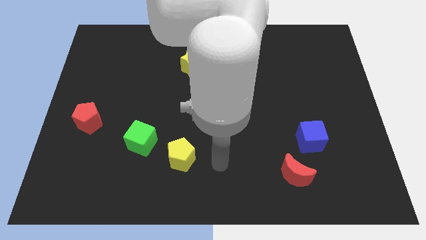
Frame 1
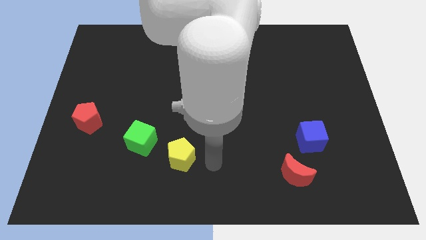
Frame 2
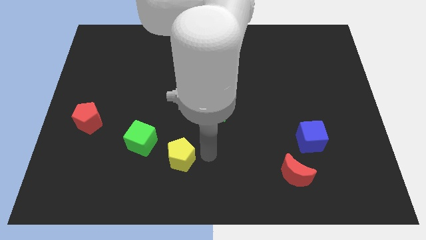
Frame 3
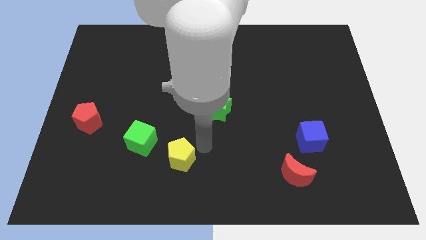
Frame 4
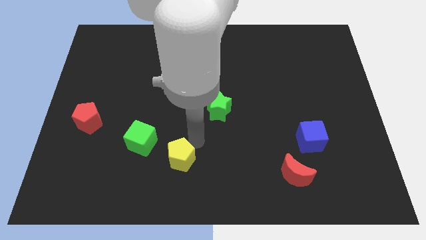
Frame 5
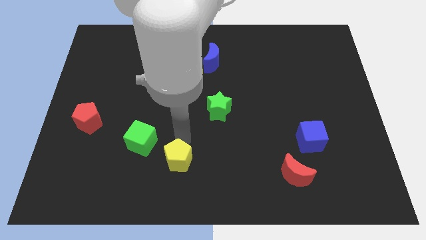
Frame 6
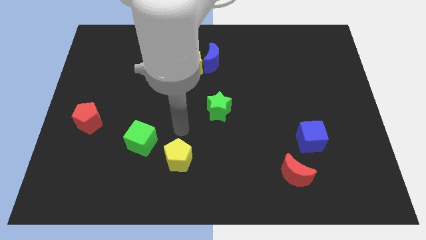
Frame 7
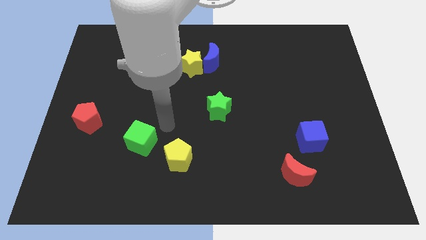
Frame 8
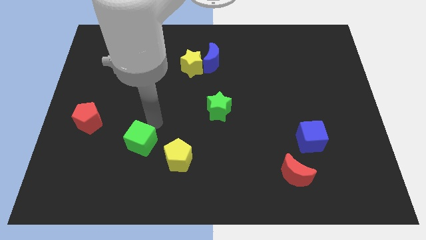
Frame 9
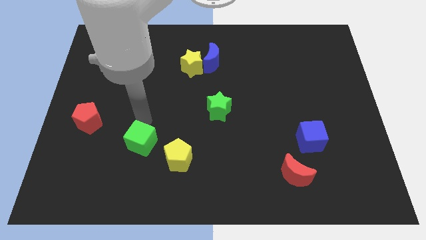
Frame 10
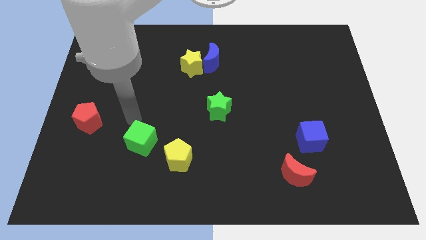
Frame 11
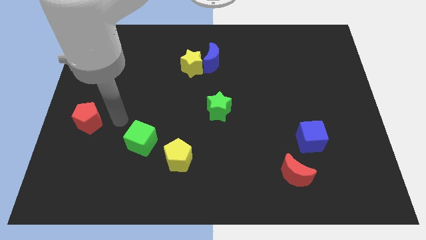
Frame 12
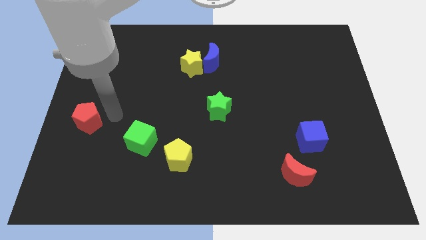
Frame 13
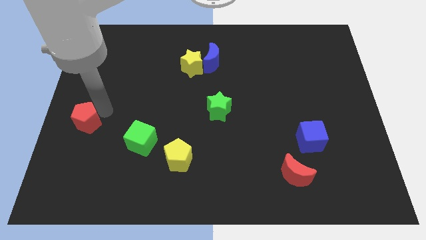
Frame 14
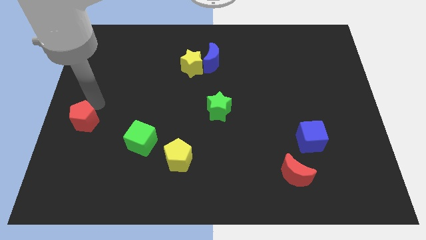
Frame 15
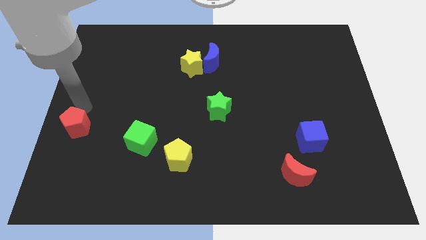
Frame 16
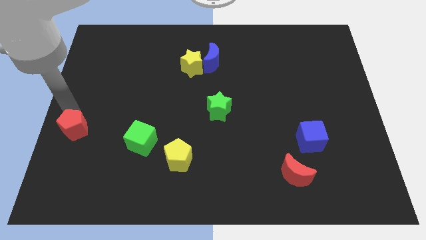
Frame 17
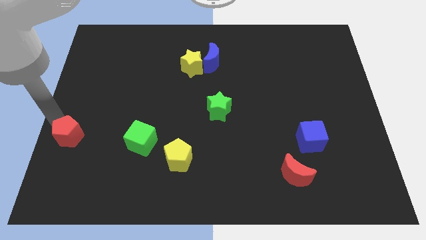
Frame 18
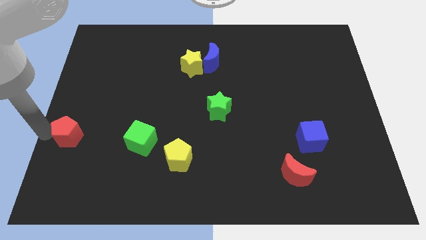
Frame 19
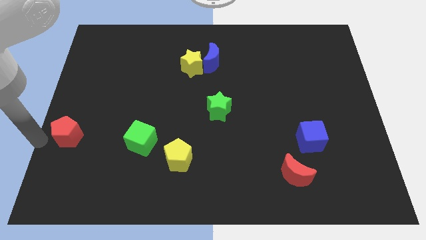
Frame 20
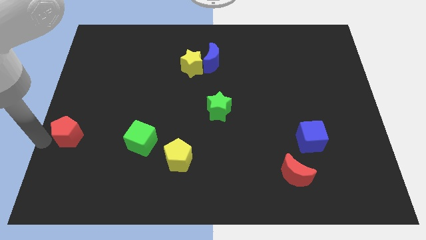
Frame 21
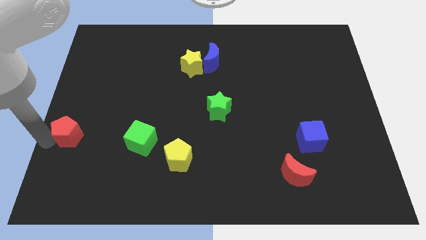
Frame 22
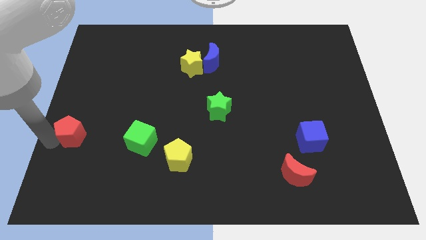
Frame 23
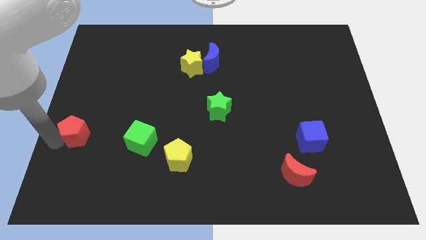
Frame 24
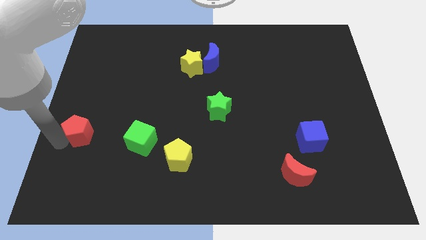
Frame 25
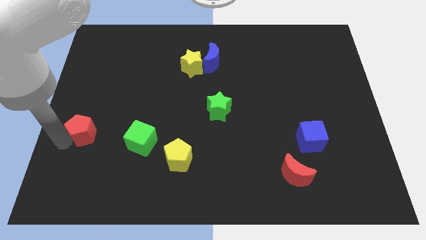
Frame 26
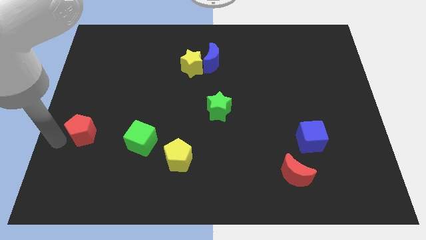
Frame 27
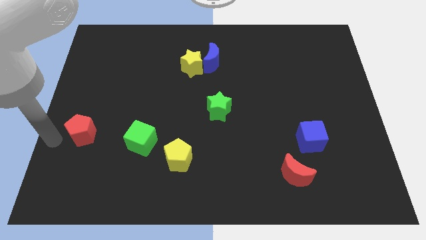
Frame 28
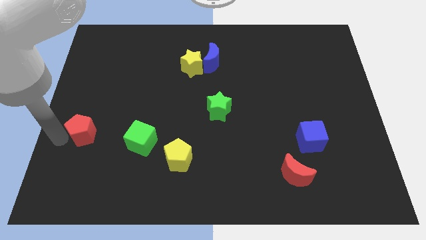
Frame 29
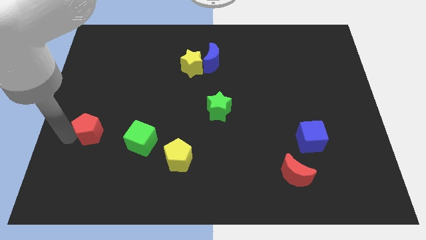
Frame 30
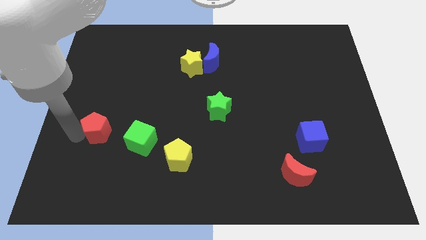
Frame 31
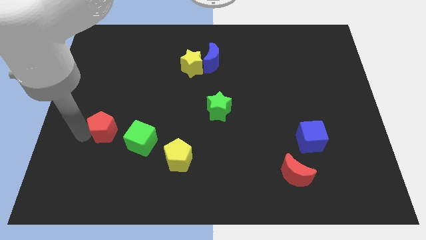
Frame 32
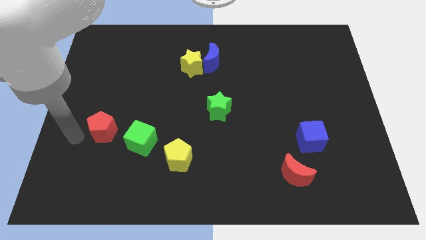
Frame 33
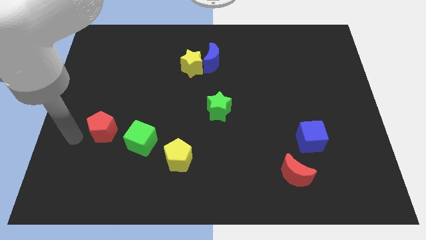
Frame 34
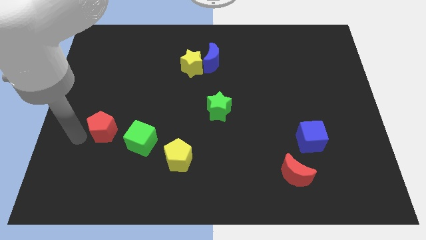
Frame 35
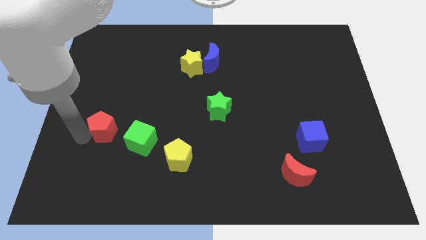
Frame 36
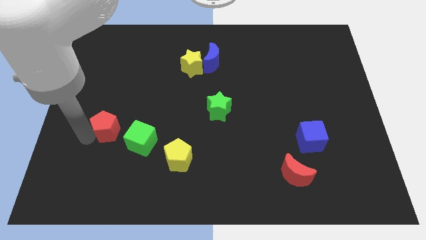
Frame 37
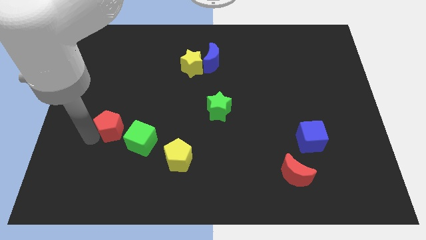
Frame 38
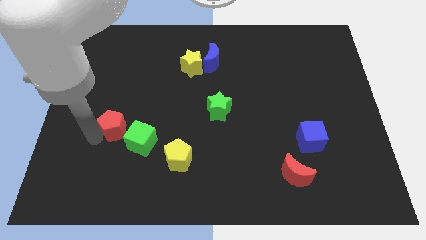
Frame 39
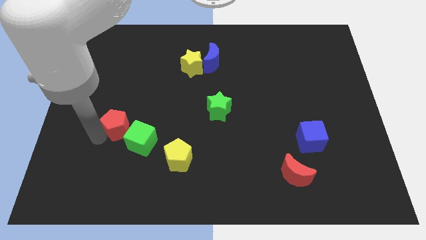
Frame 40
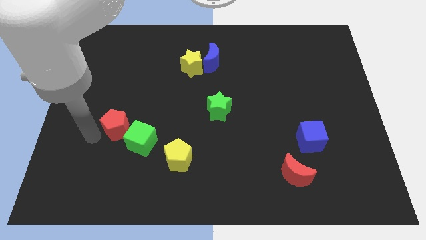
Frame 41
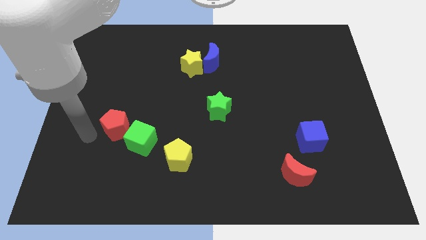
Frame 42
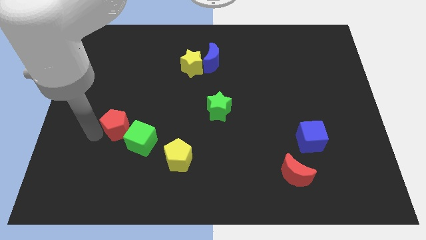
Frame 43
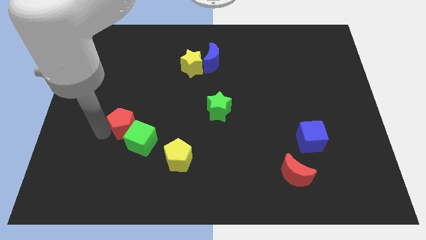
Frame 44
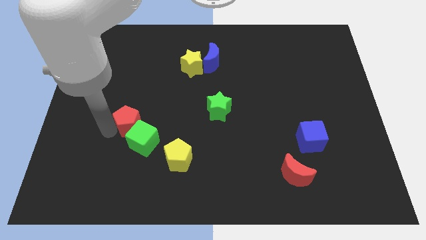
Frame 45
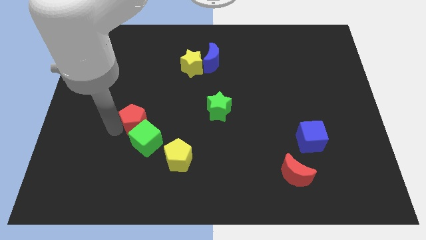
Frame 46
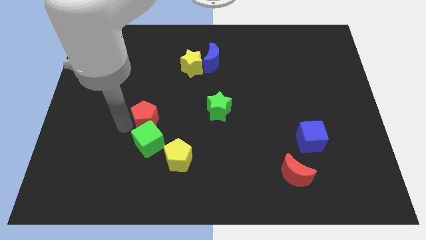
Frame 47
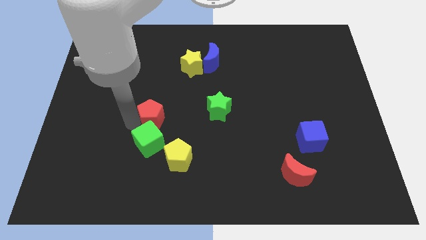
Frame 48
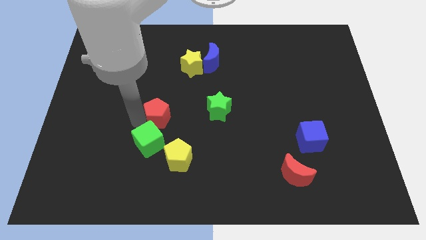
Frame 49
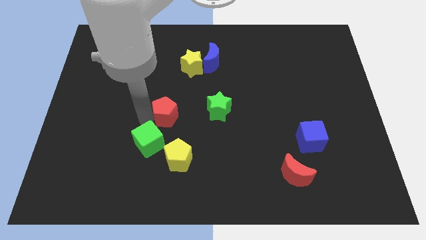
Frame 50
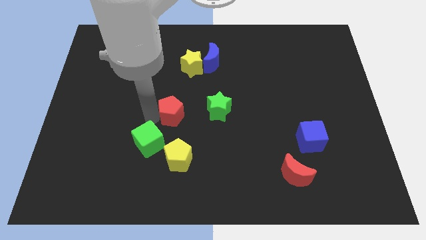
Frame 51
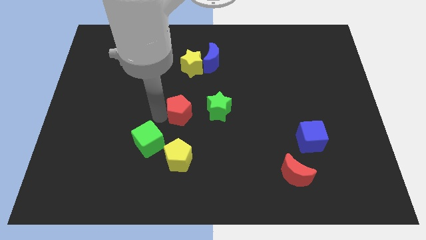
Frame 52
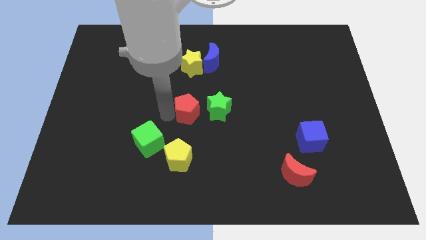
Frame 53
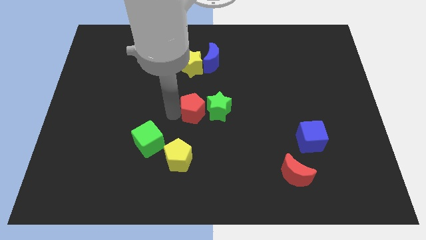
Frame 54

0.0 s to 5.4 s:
slide the red pentagon close to the green star

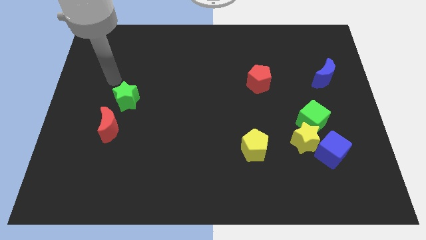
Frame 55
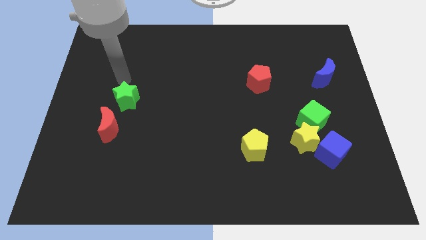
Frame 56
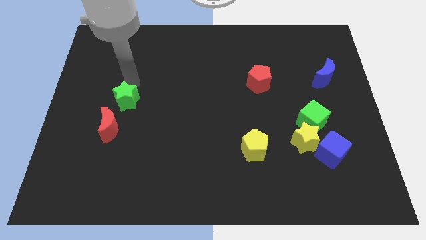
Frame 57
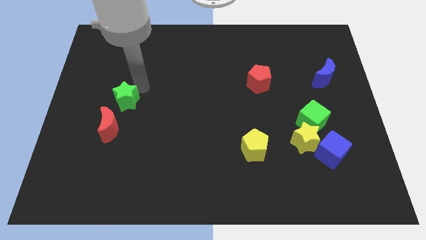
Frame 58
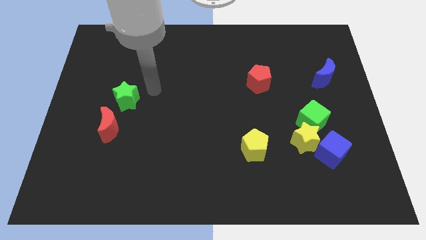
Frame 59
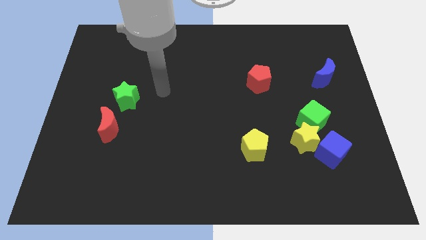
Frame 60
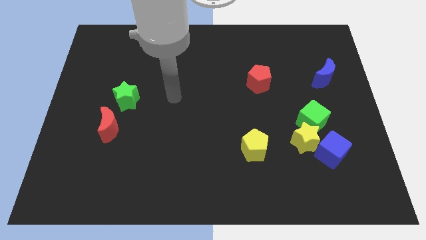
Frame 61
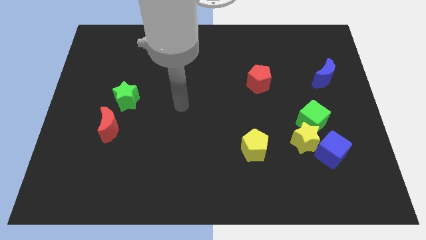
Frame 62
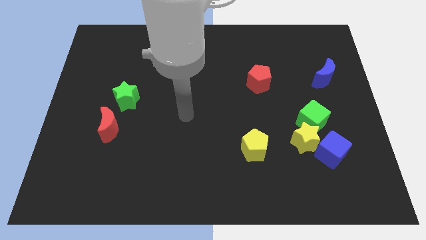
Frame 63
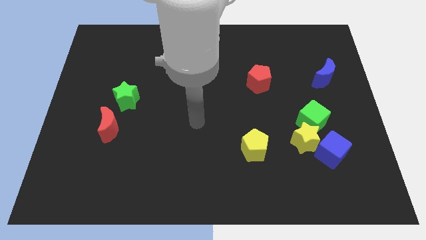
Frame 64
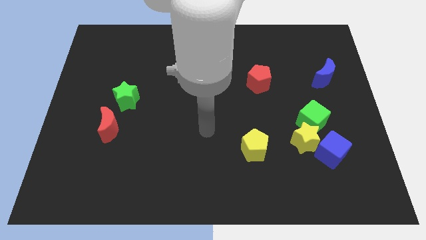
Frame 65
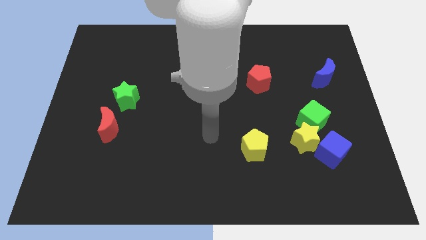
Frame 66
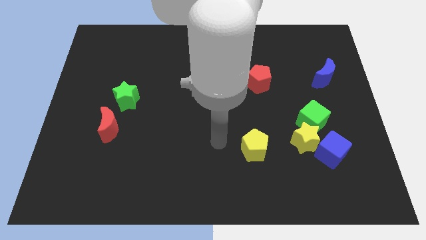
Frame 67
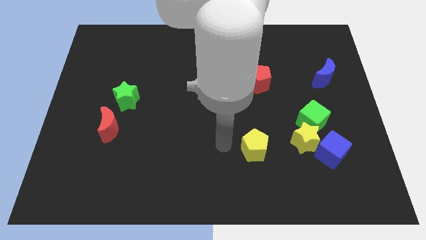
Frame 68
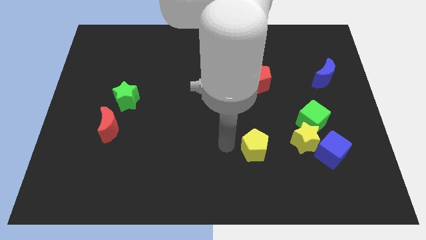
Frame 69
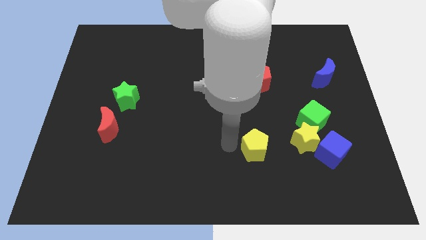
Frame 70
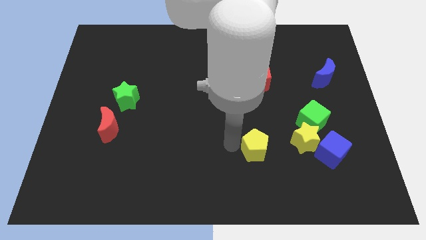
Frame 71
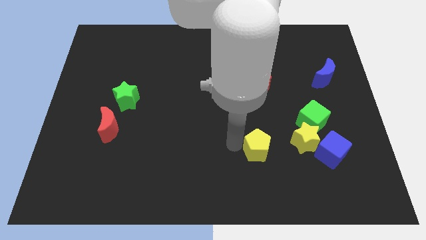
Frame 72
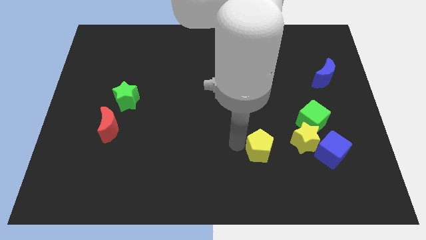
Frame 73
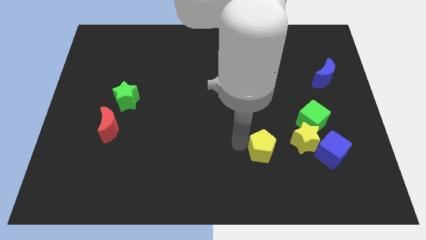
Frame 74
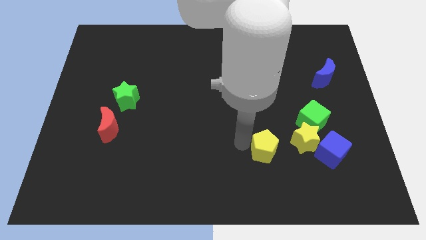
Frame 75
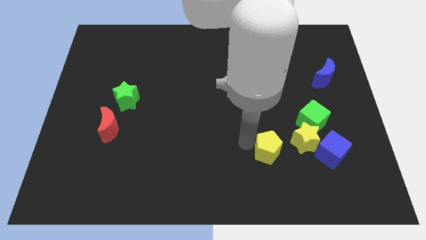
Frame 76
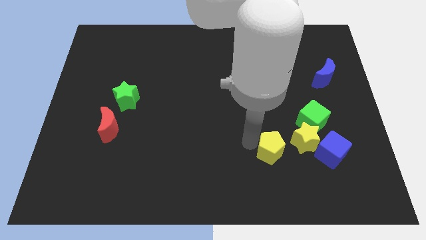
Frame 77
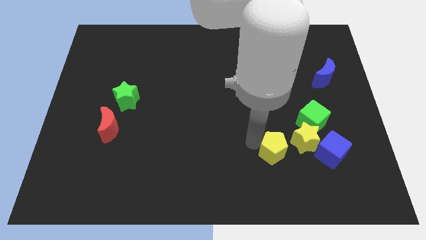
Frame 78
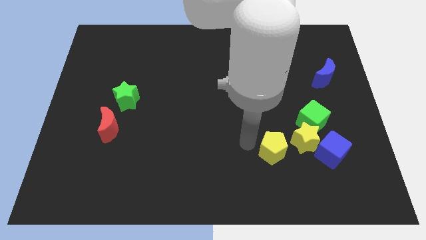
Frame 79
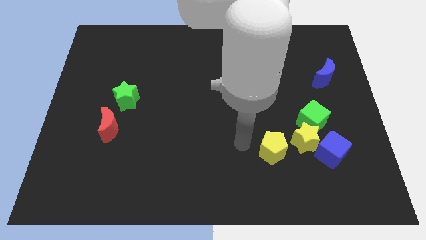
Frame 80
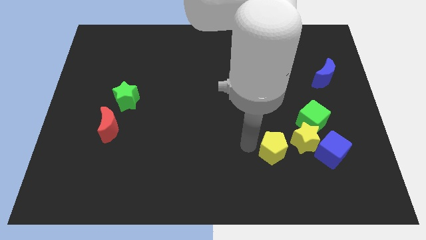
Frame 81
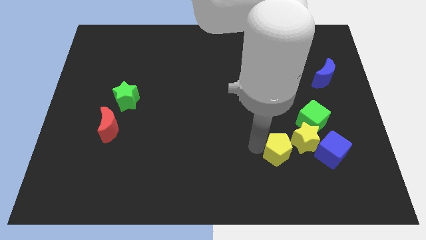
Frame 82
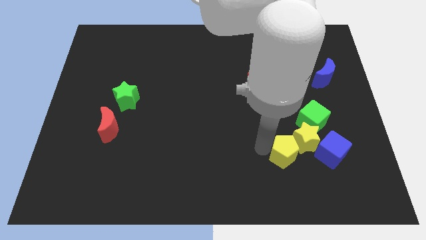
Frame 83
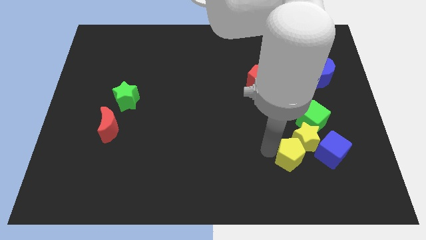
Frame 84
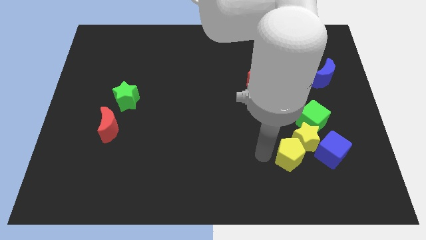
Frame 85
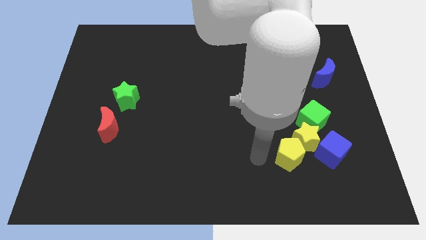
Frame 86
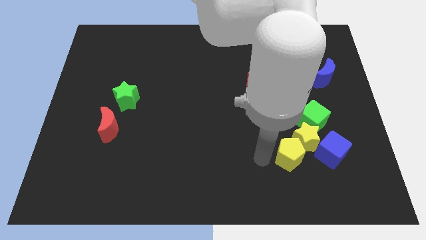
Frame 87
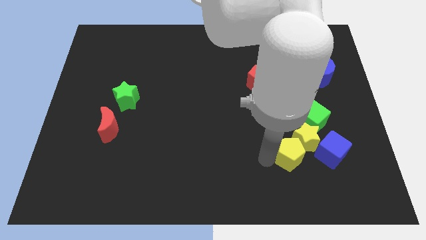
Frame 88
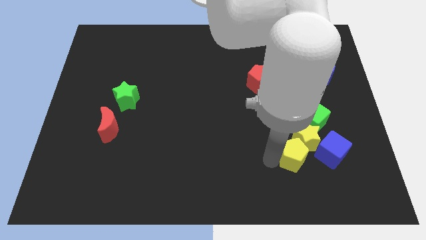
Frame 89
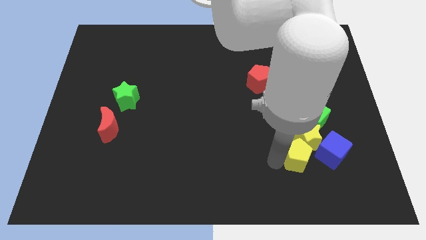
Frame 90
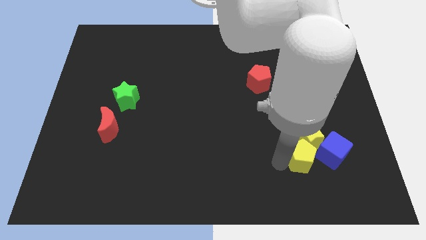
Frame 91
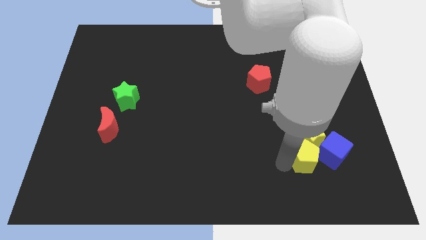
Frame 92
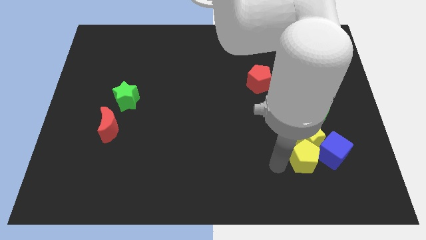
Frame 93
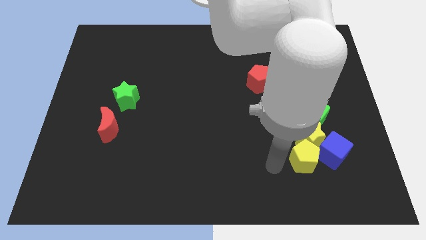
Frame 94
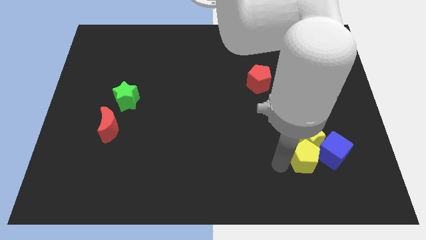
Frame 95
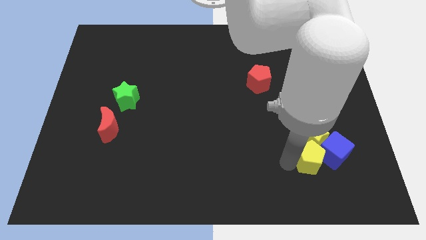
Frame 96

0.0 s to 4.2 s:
push the yellow pentagon close to the blue cube
